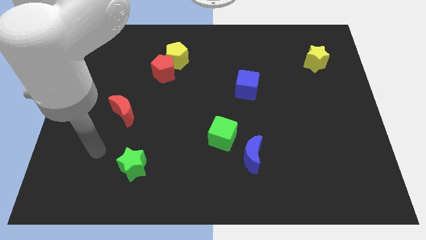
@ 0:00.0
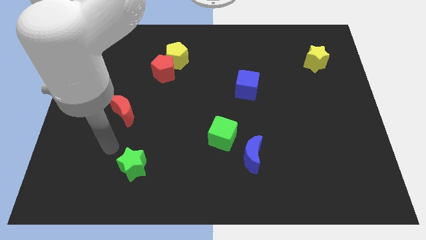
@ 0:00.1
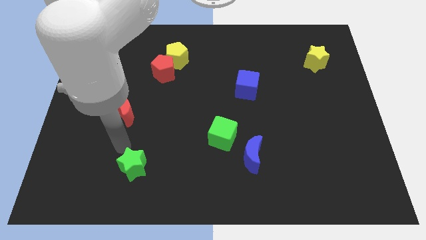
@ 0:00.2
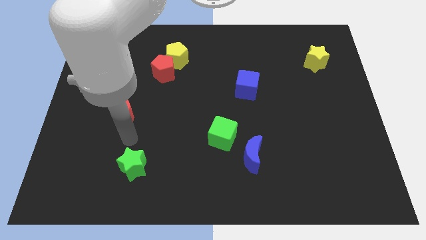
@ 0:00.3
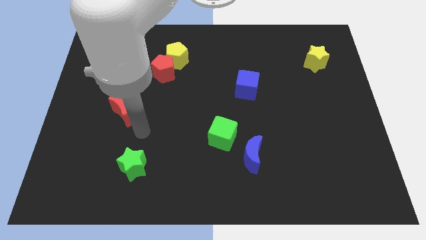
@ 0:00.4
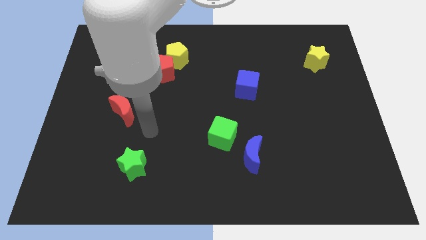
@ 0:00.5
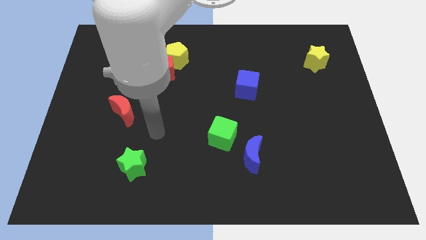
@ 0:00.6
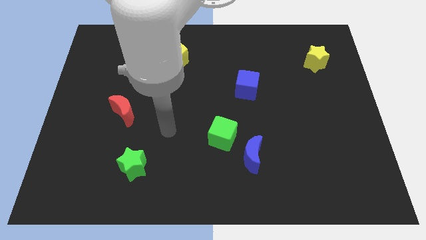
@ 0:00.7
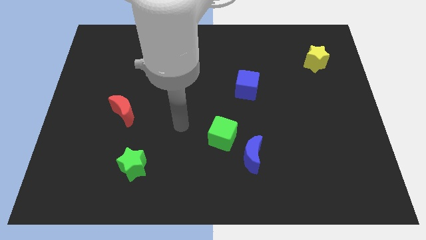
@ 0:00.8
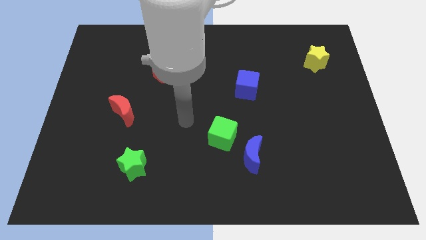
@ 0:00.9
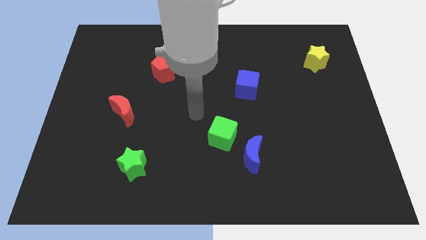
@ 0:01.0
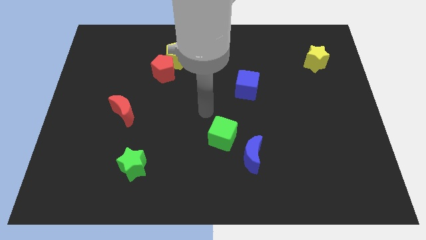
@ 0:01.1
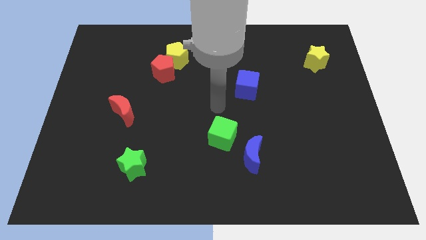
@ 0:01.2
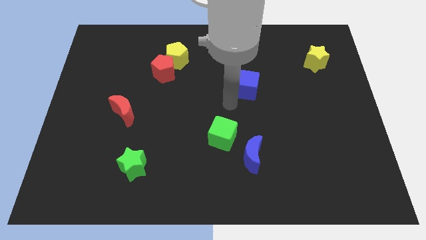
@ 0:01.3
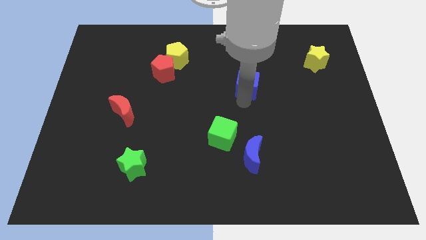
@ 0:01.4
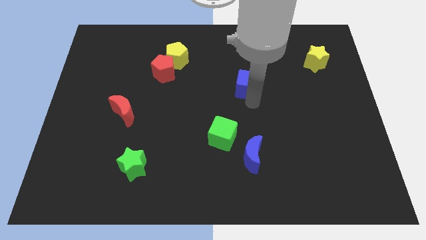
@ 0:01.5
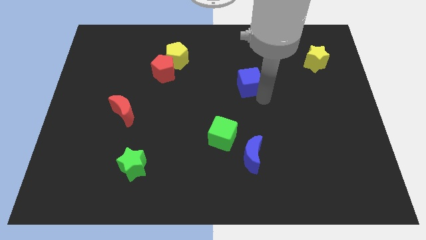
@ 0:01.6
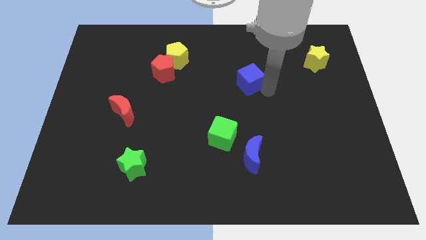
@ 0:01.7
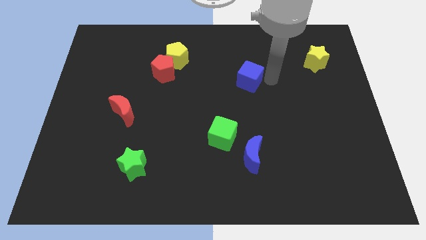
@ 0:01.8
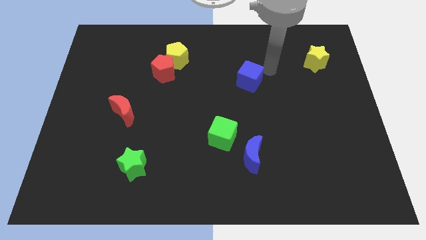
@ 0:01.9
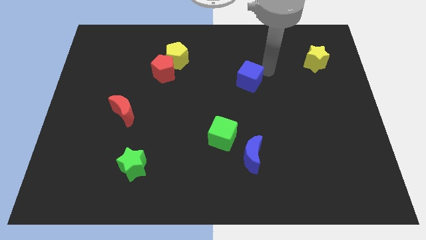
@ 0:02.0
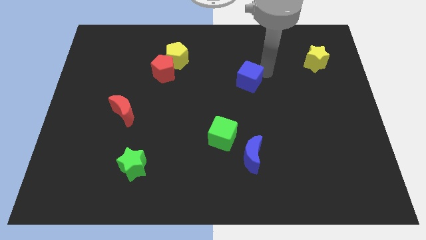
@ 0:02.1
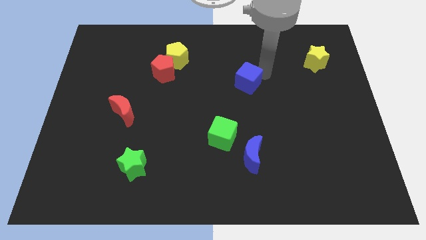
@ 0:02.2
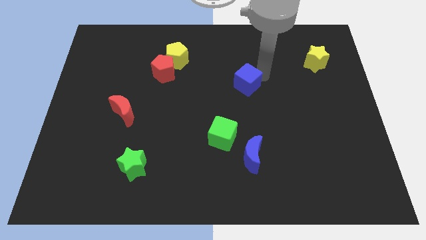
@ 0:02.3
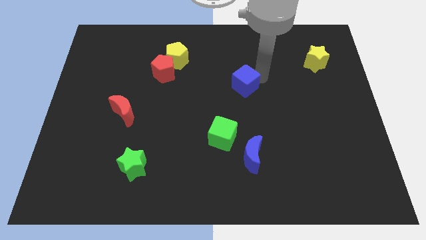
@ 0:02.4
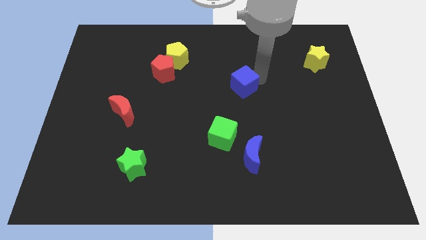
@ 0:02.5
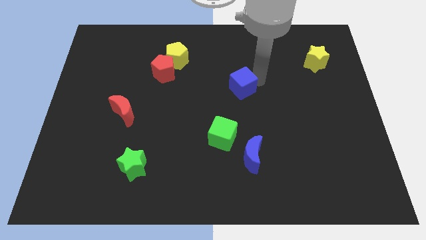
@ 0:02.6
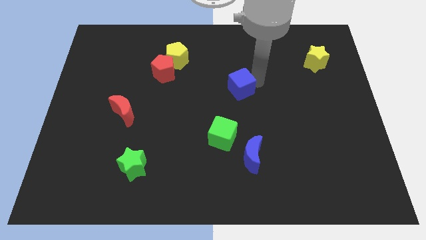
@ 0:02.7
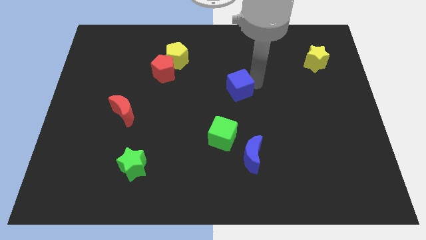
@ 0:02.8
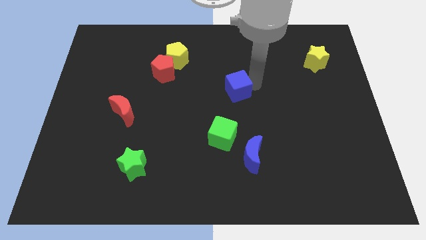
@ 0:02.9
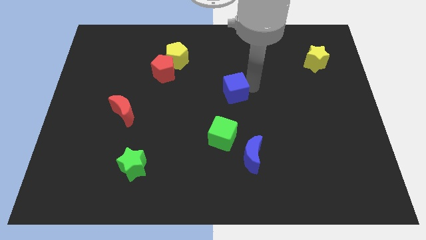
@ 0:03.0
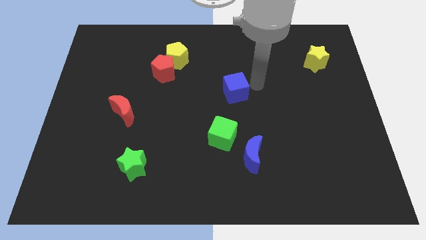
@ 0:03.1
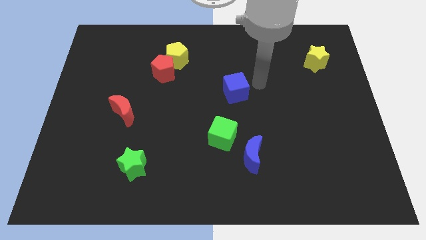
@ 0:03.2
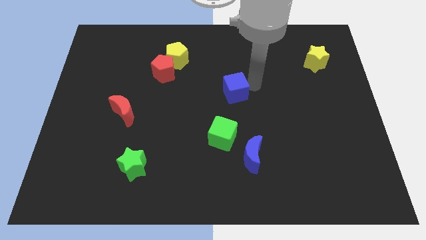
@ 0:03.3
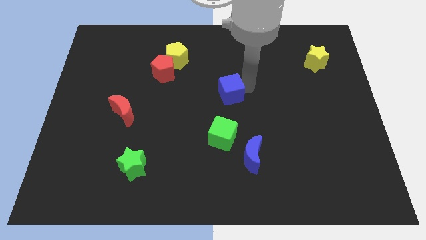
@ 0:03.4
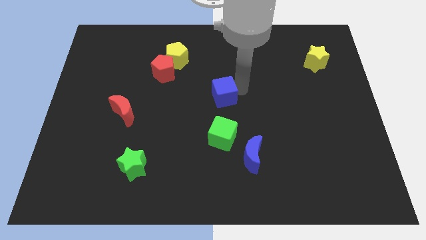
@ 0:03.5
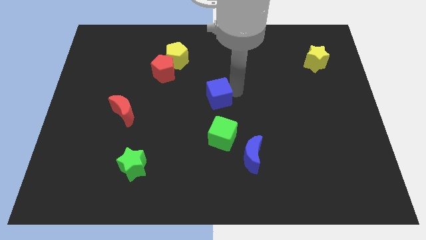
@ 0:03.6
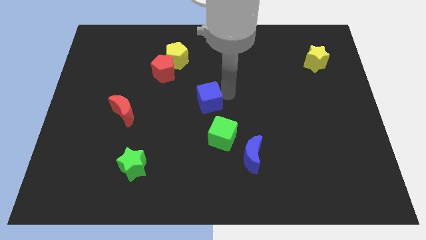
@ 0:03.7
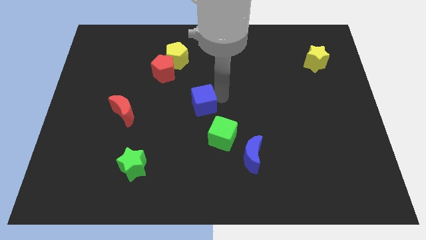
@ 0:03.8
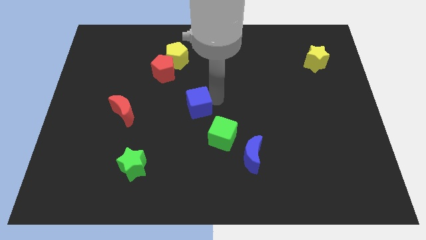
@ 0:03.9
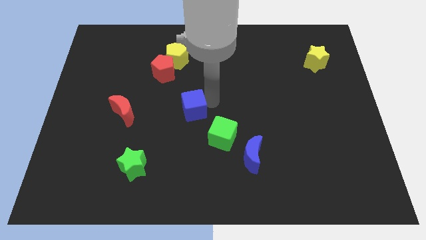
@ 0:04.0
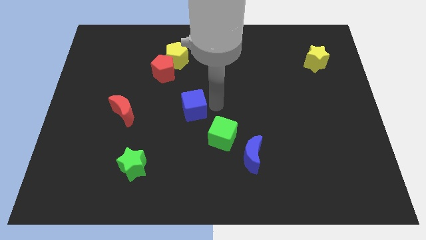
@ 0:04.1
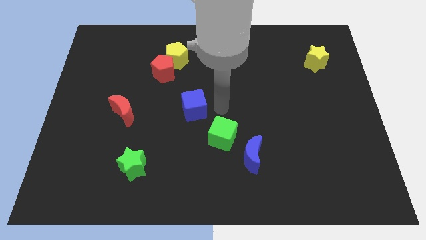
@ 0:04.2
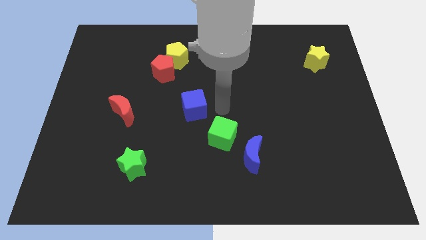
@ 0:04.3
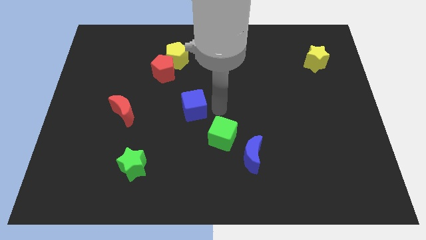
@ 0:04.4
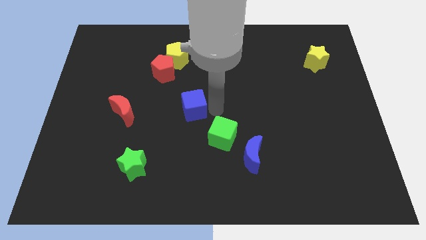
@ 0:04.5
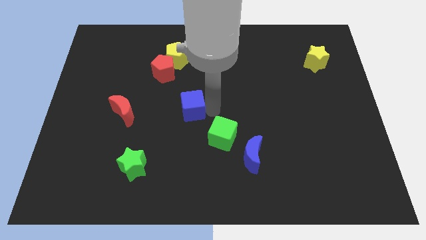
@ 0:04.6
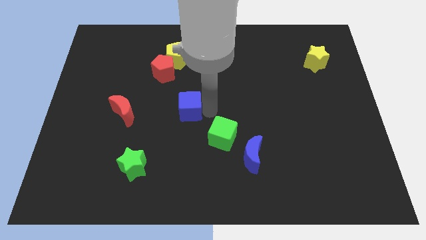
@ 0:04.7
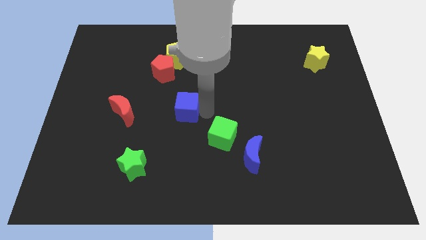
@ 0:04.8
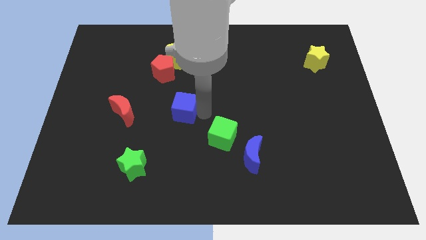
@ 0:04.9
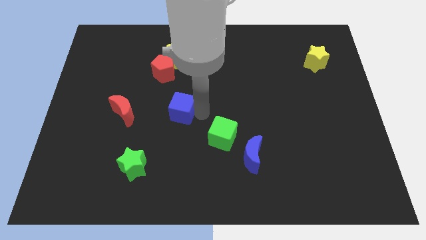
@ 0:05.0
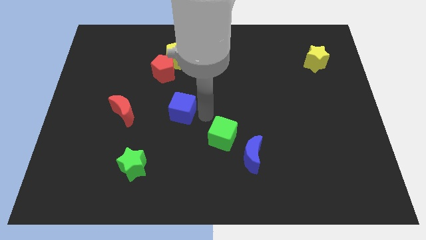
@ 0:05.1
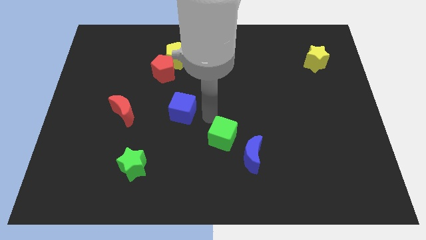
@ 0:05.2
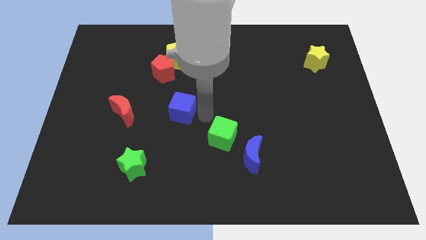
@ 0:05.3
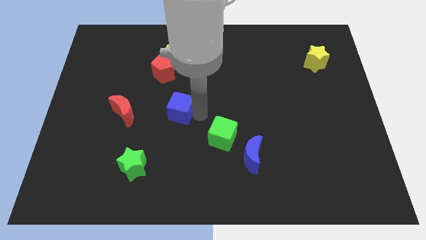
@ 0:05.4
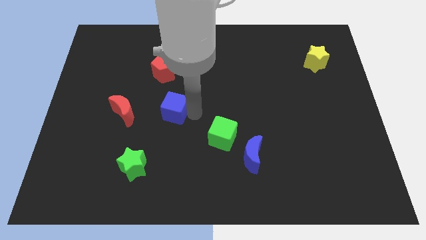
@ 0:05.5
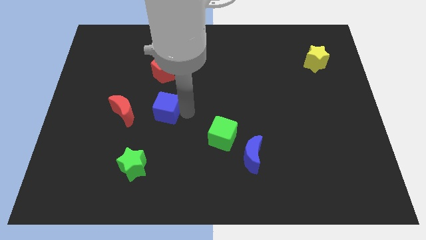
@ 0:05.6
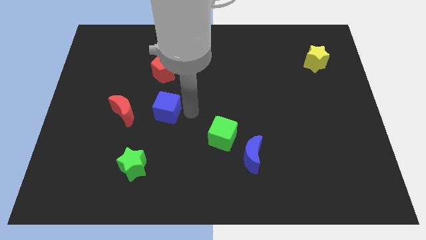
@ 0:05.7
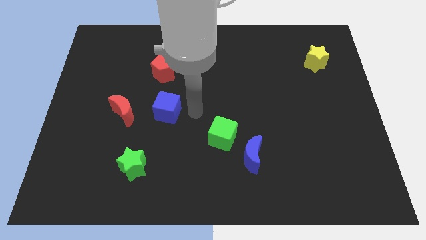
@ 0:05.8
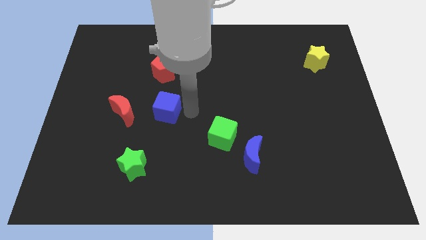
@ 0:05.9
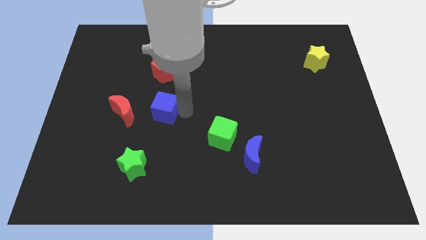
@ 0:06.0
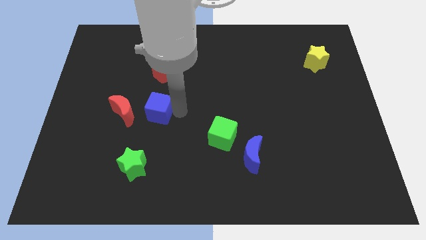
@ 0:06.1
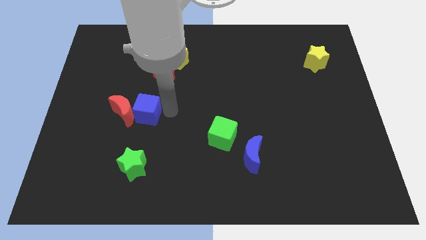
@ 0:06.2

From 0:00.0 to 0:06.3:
move the blue cube next to the red moon

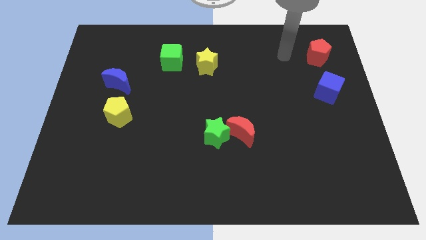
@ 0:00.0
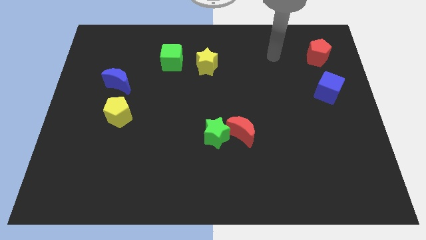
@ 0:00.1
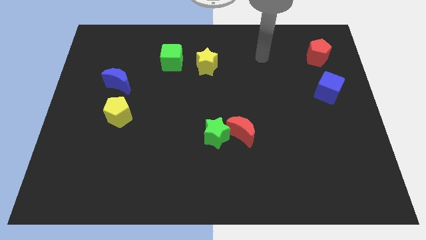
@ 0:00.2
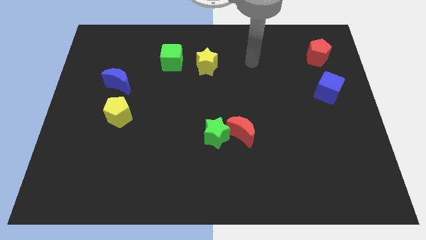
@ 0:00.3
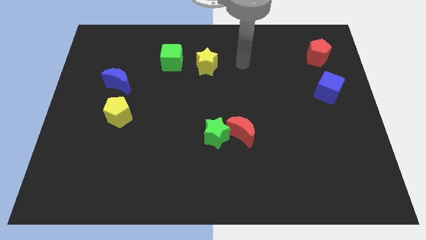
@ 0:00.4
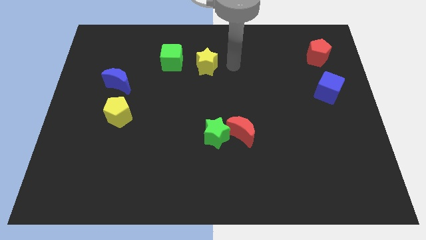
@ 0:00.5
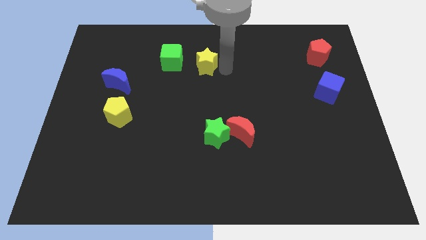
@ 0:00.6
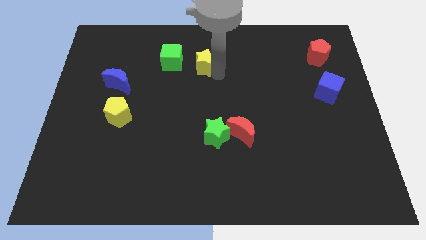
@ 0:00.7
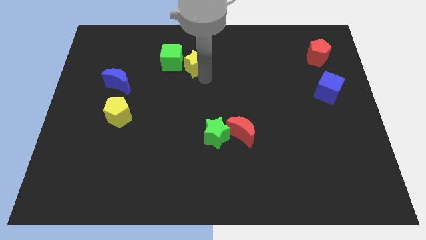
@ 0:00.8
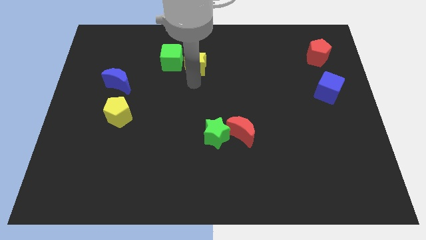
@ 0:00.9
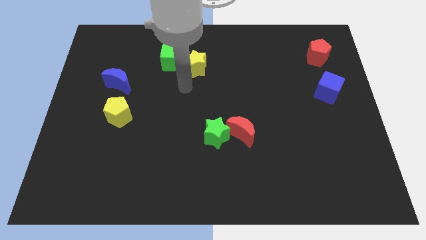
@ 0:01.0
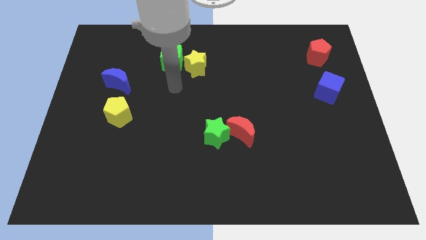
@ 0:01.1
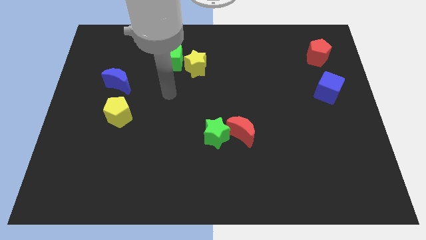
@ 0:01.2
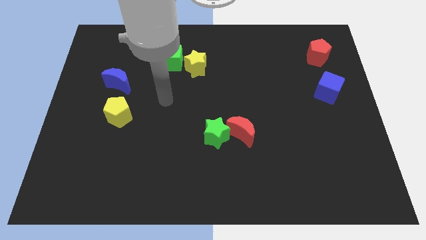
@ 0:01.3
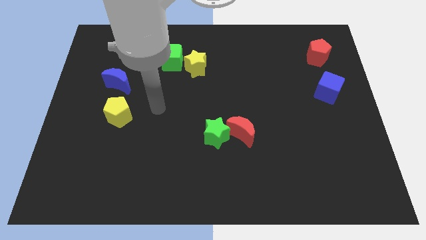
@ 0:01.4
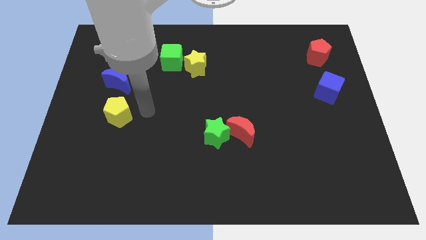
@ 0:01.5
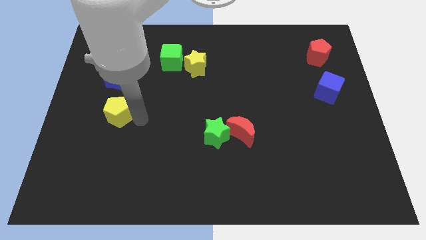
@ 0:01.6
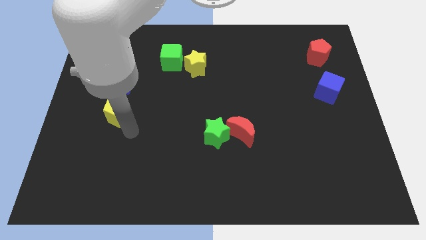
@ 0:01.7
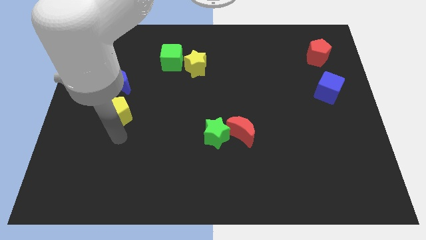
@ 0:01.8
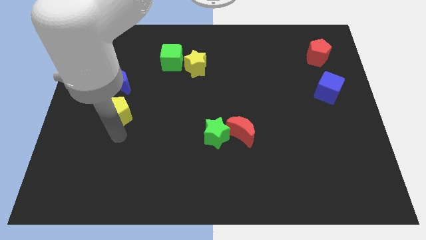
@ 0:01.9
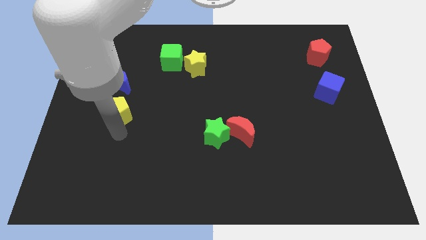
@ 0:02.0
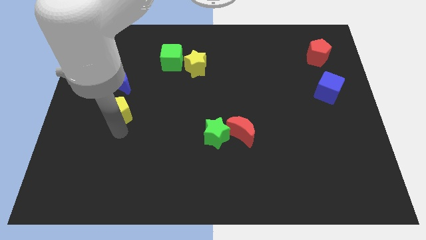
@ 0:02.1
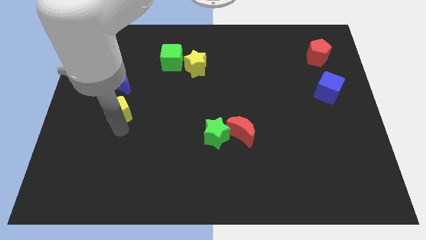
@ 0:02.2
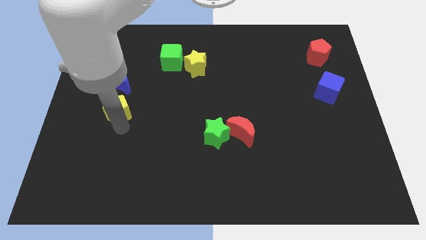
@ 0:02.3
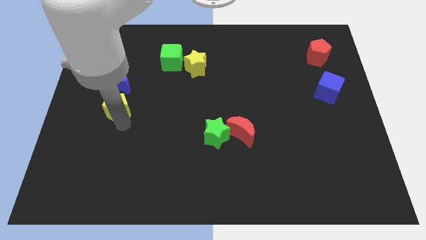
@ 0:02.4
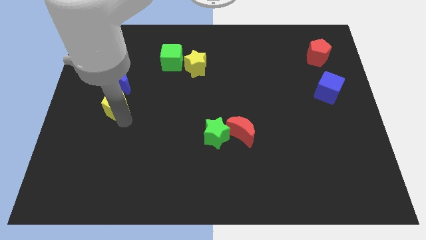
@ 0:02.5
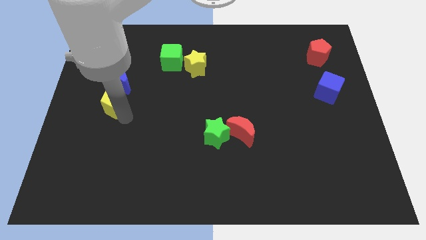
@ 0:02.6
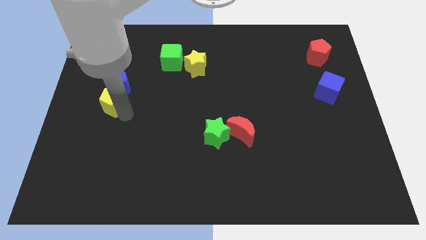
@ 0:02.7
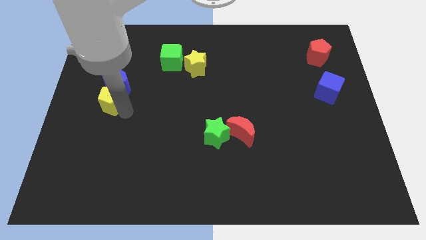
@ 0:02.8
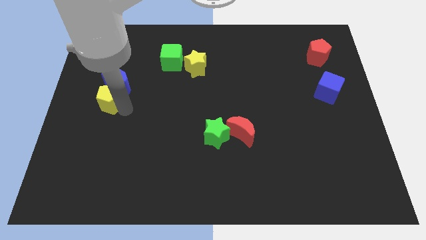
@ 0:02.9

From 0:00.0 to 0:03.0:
move the yellow pentagon to the blue moon
